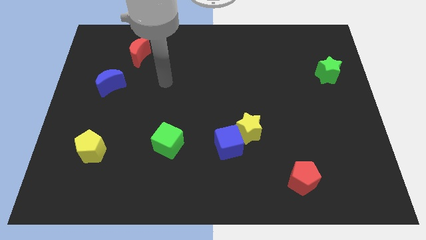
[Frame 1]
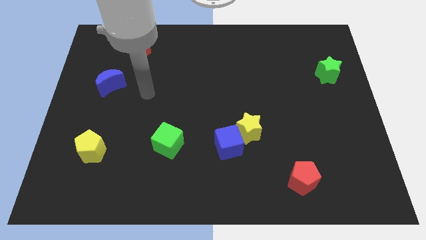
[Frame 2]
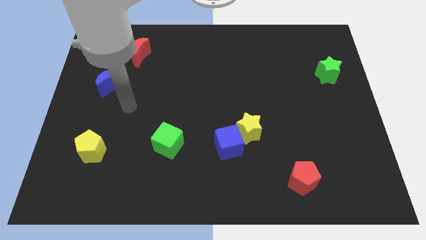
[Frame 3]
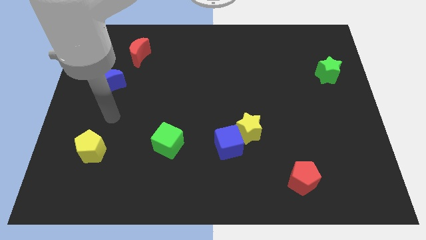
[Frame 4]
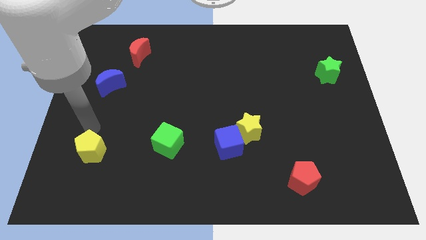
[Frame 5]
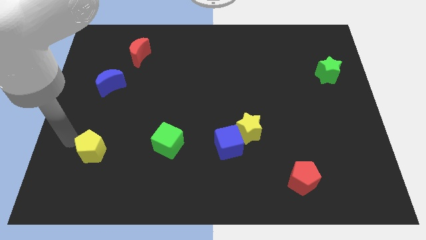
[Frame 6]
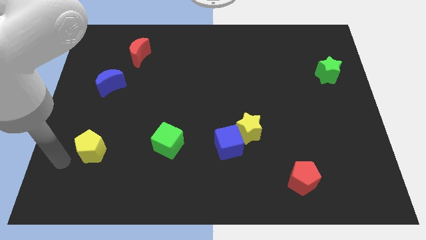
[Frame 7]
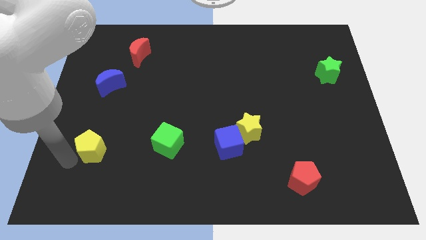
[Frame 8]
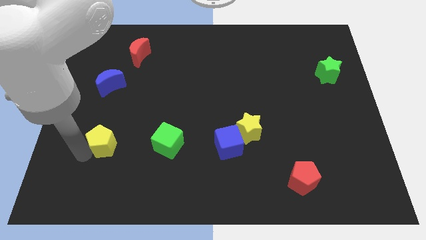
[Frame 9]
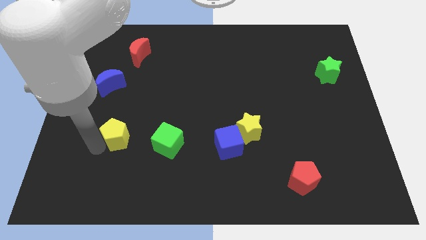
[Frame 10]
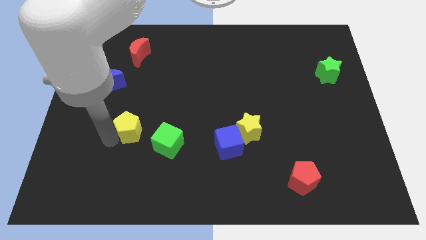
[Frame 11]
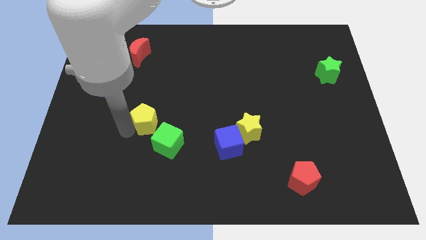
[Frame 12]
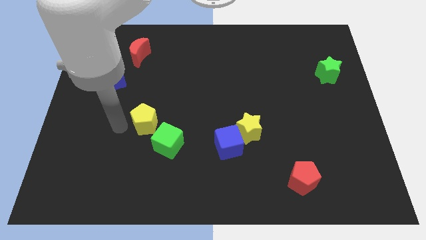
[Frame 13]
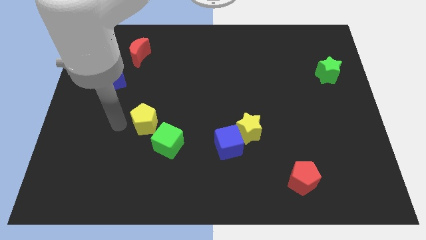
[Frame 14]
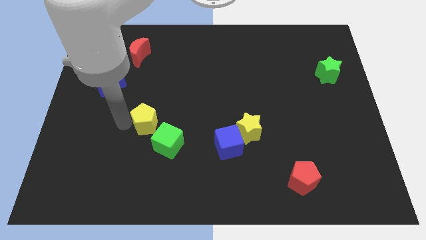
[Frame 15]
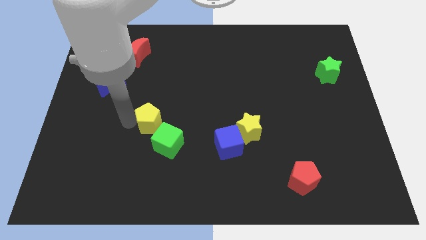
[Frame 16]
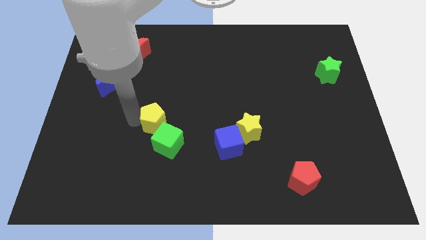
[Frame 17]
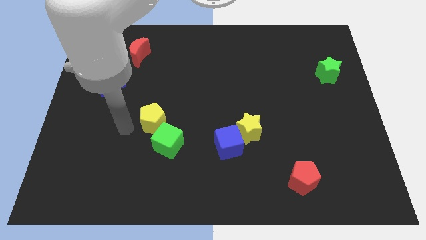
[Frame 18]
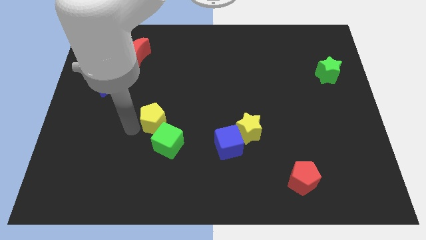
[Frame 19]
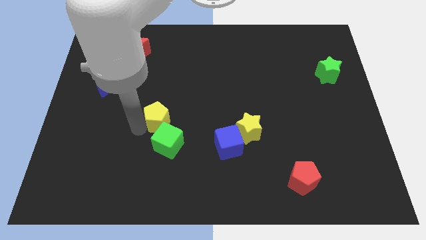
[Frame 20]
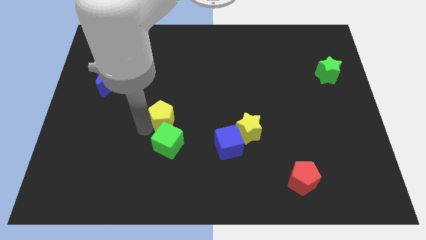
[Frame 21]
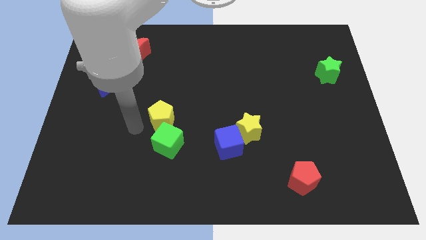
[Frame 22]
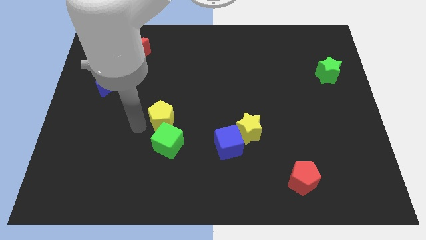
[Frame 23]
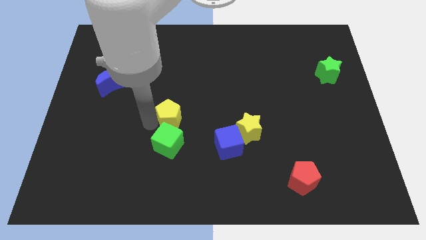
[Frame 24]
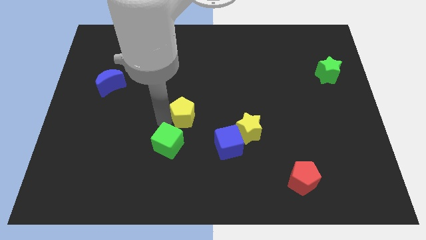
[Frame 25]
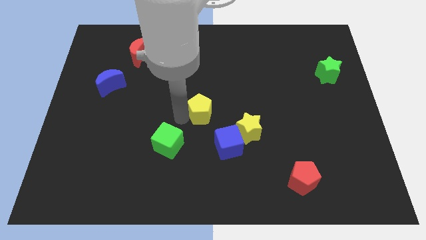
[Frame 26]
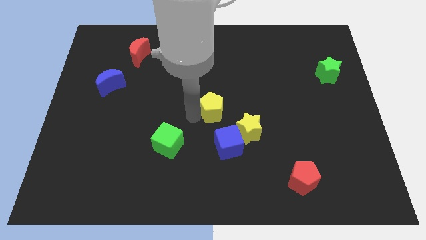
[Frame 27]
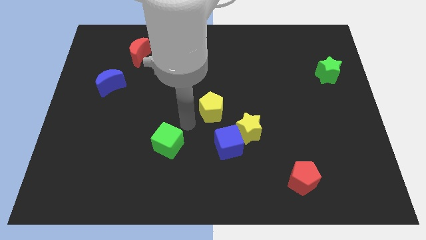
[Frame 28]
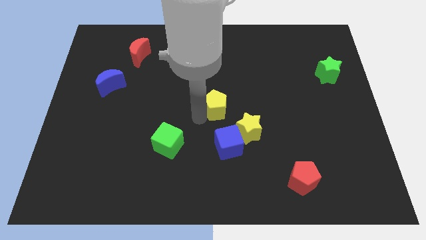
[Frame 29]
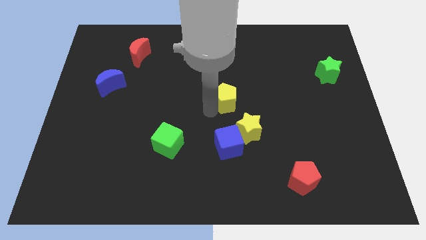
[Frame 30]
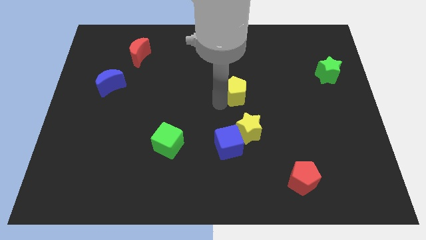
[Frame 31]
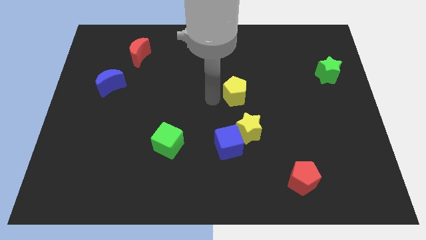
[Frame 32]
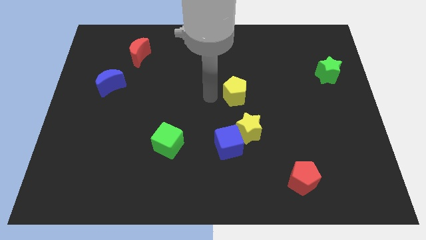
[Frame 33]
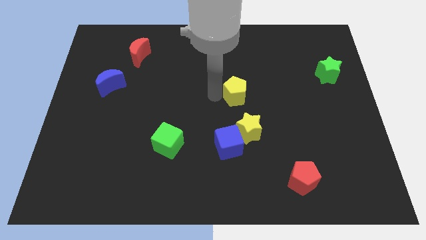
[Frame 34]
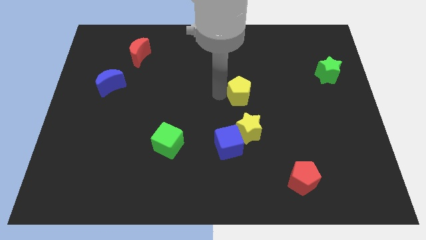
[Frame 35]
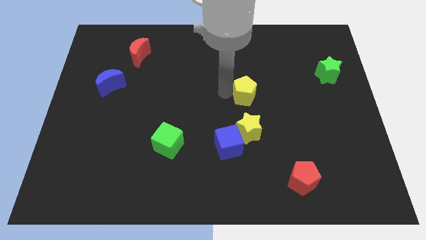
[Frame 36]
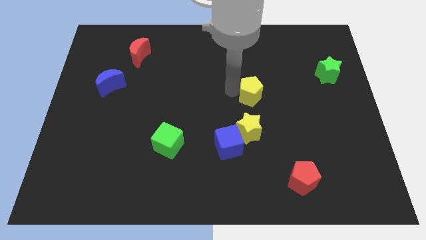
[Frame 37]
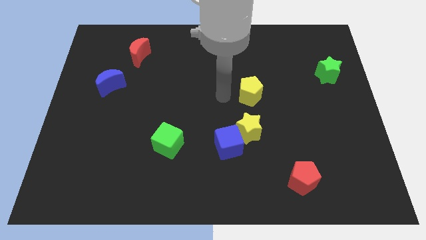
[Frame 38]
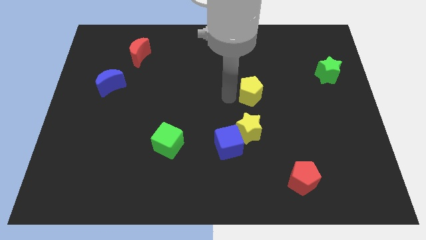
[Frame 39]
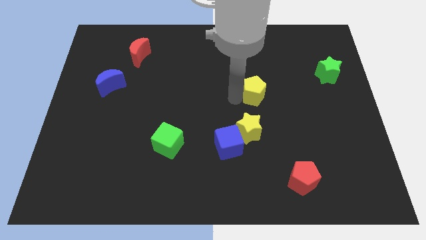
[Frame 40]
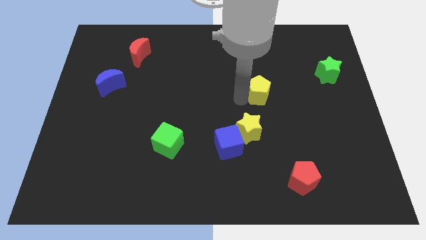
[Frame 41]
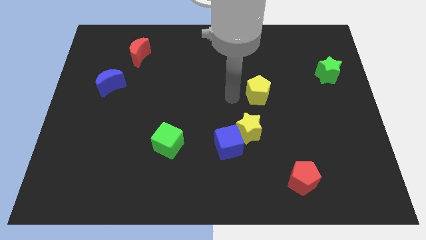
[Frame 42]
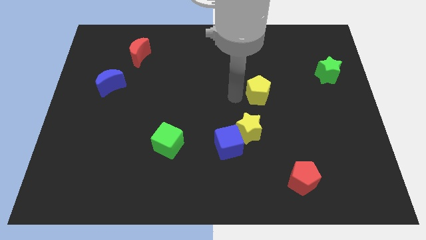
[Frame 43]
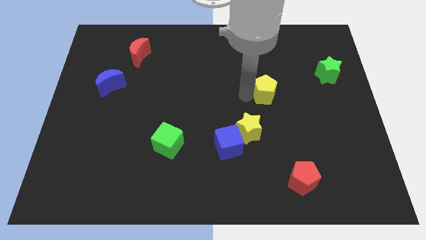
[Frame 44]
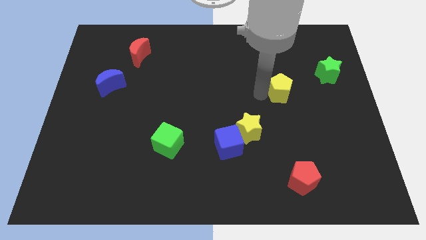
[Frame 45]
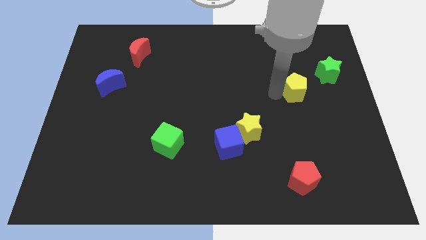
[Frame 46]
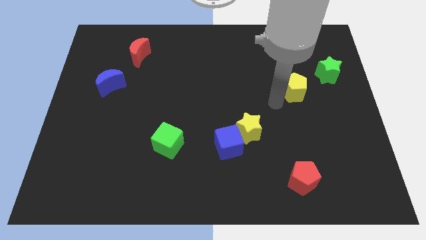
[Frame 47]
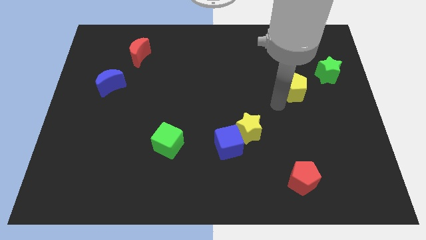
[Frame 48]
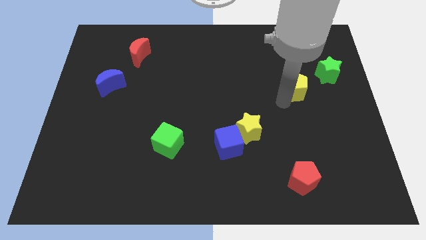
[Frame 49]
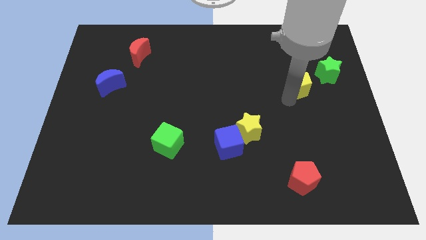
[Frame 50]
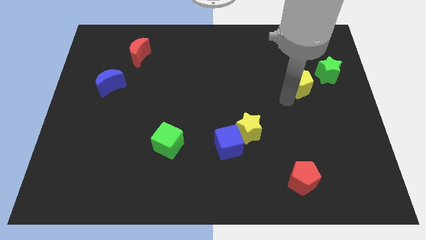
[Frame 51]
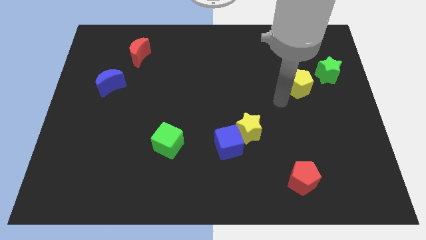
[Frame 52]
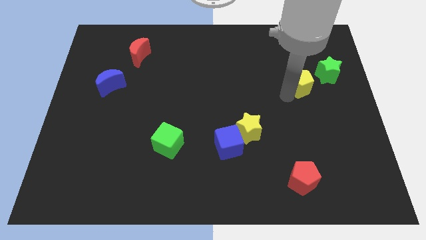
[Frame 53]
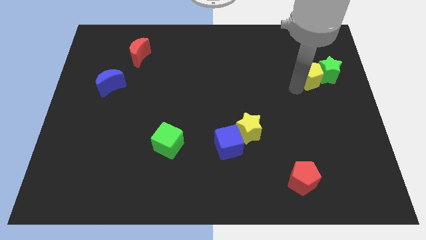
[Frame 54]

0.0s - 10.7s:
put the yellow pentagon to the green star

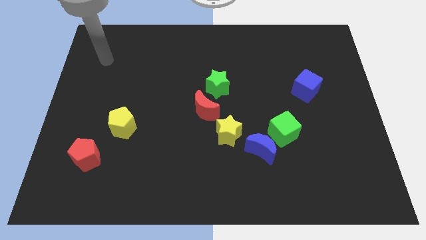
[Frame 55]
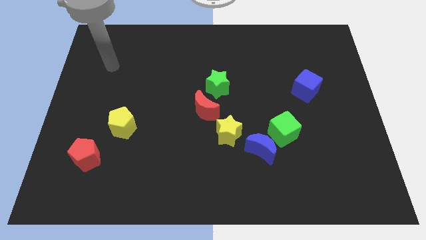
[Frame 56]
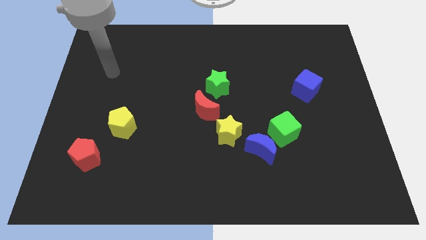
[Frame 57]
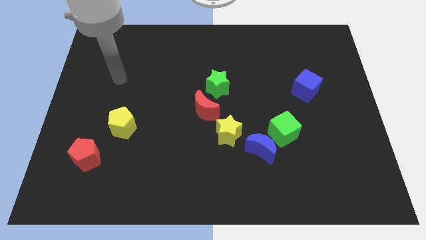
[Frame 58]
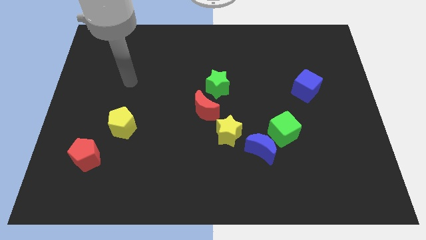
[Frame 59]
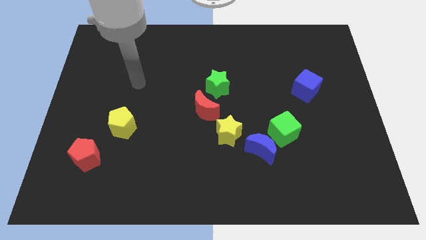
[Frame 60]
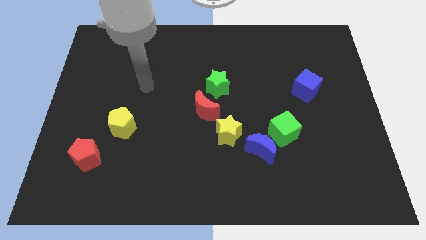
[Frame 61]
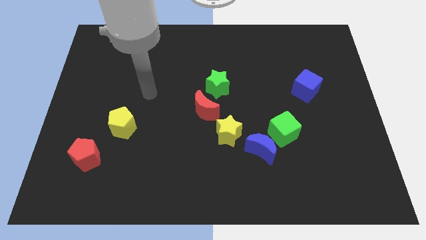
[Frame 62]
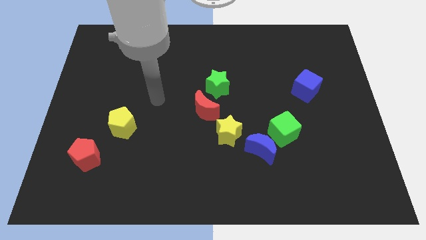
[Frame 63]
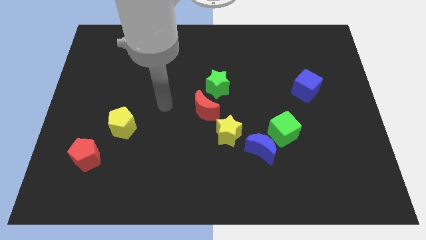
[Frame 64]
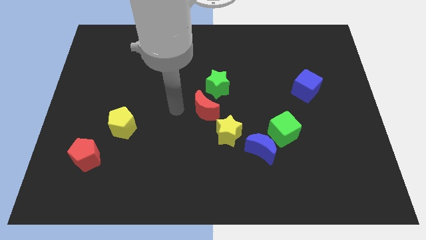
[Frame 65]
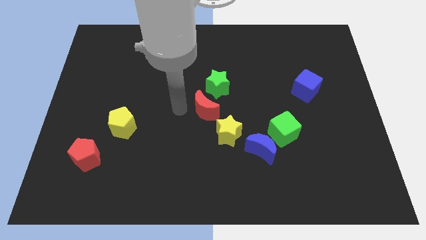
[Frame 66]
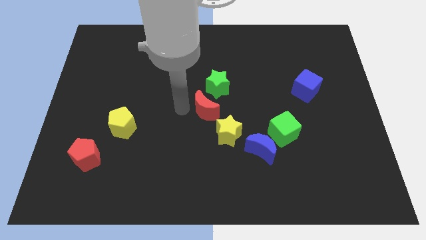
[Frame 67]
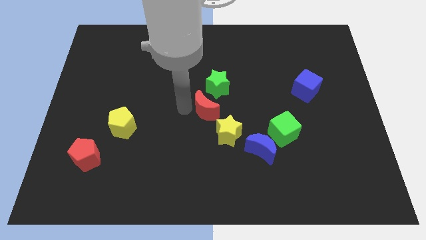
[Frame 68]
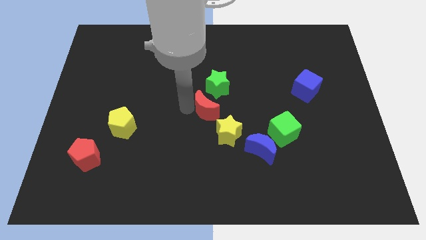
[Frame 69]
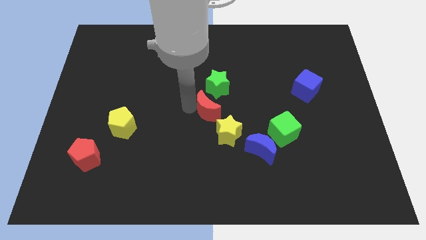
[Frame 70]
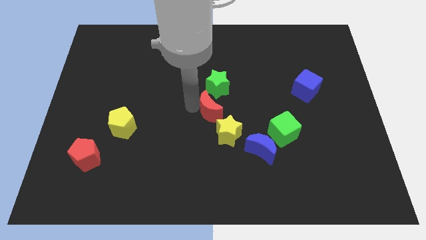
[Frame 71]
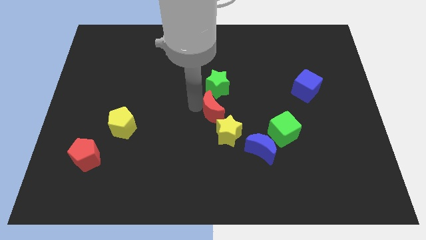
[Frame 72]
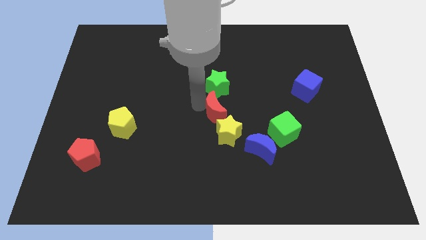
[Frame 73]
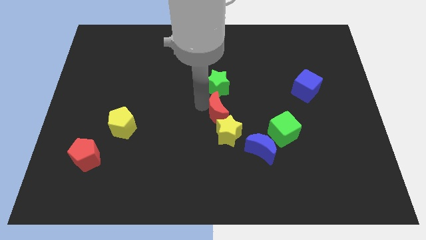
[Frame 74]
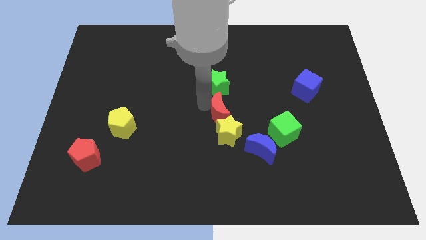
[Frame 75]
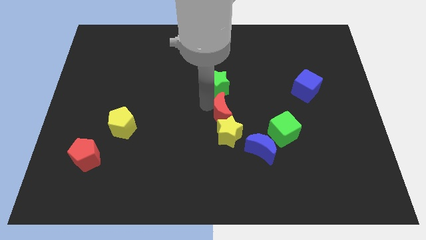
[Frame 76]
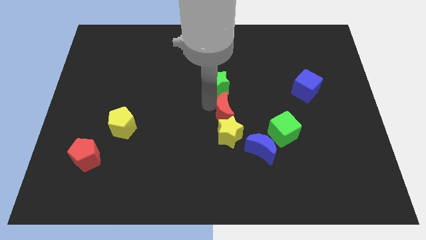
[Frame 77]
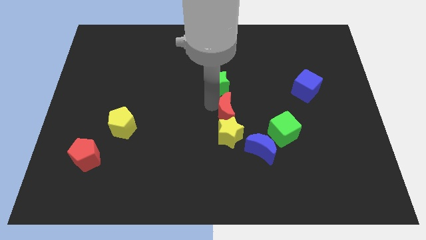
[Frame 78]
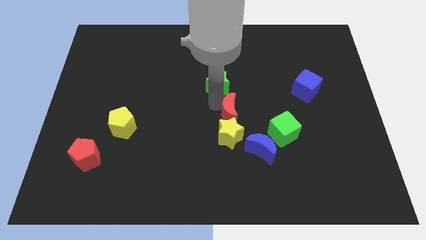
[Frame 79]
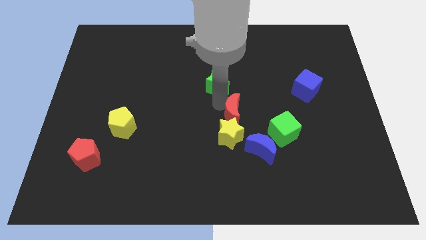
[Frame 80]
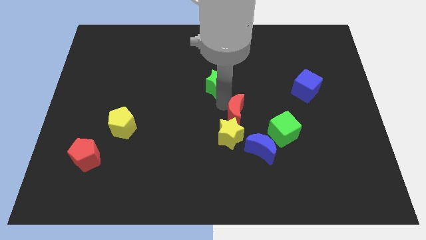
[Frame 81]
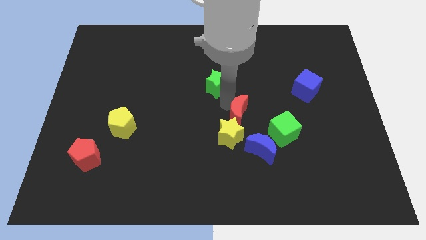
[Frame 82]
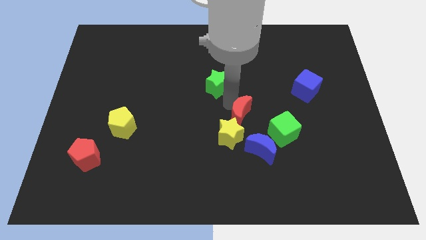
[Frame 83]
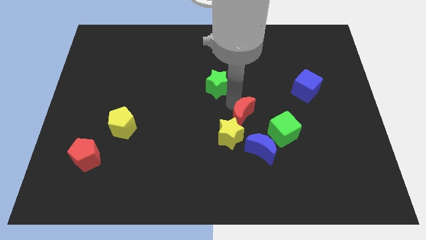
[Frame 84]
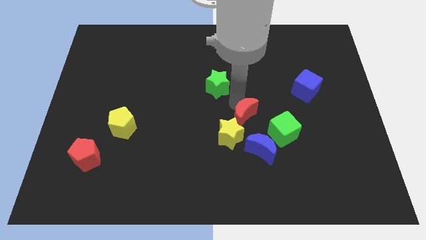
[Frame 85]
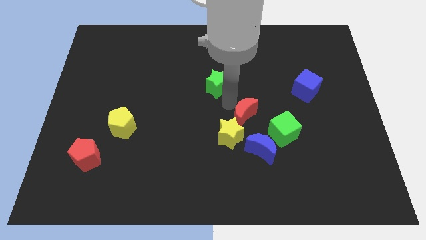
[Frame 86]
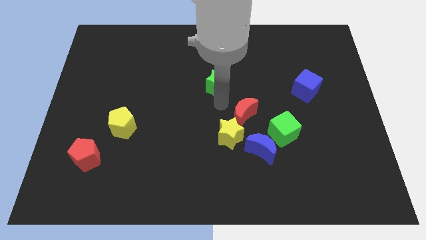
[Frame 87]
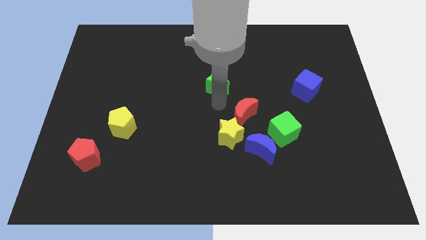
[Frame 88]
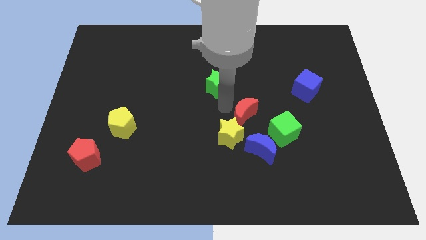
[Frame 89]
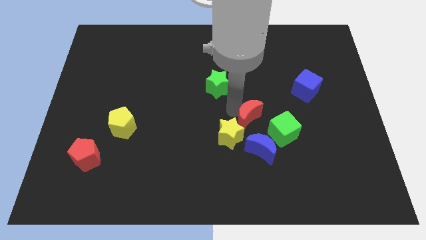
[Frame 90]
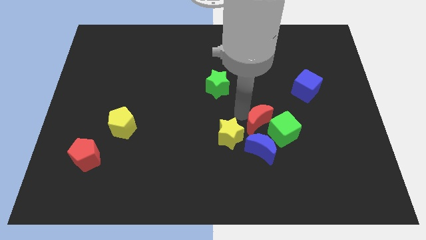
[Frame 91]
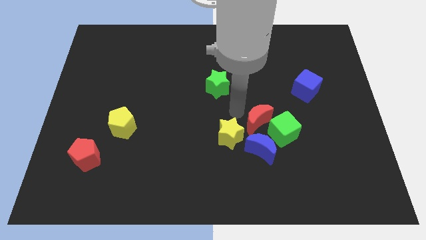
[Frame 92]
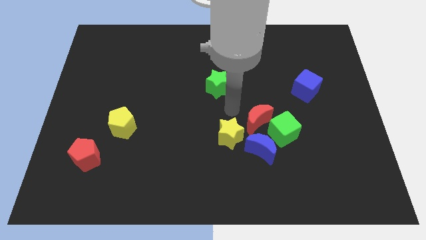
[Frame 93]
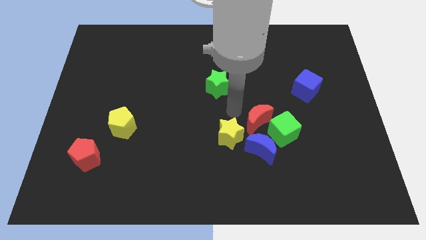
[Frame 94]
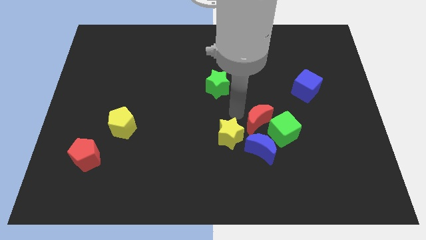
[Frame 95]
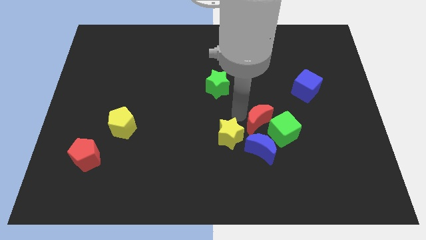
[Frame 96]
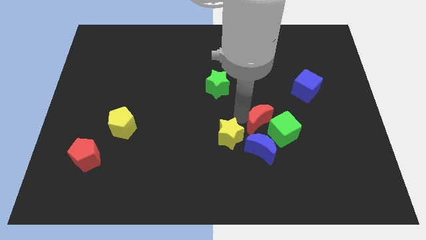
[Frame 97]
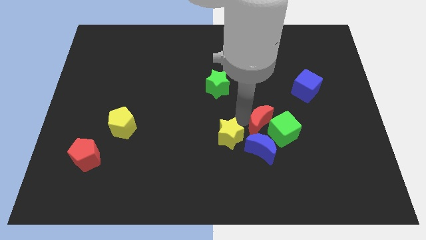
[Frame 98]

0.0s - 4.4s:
move the red moon next to the green cube
